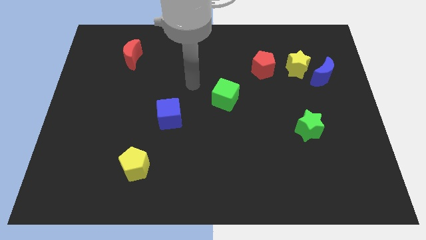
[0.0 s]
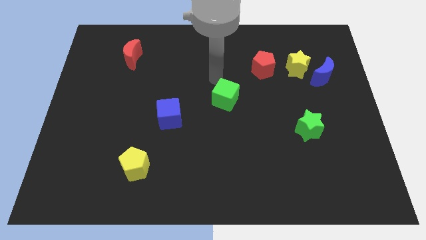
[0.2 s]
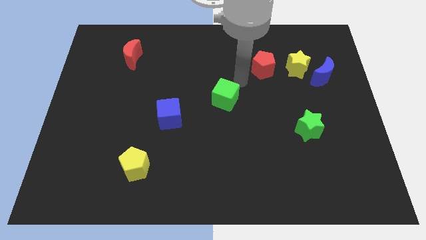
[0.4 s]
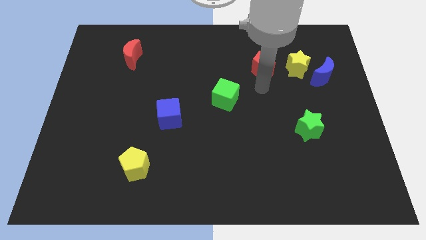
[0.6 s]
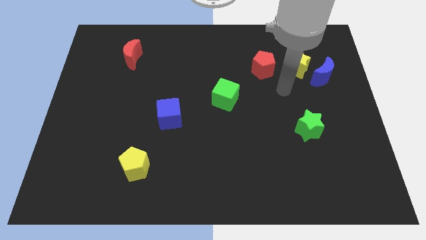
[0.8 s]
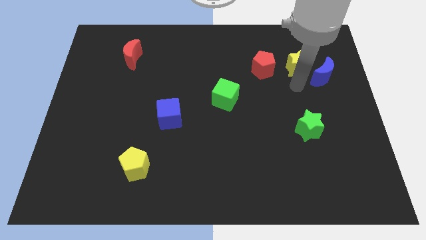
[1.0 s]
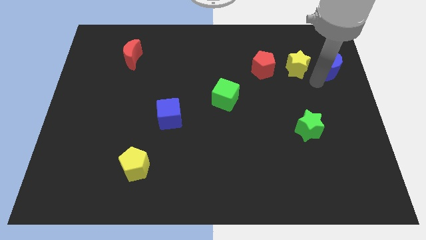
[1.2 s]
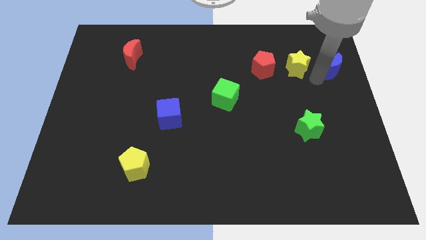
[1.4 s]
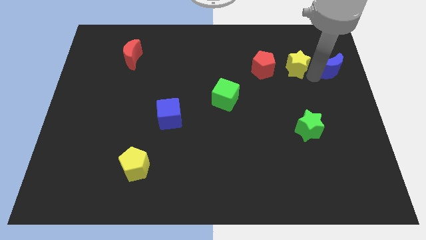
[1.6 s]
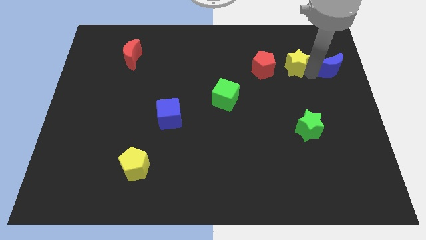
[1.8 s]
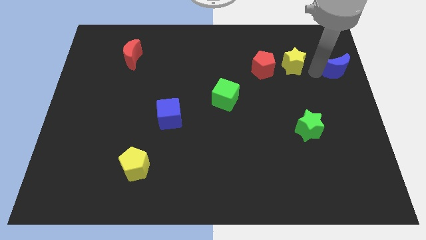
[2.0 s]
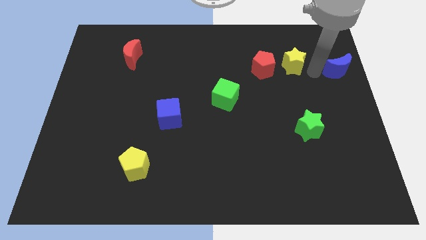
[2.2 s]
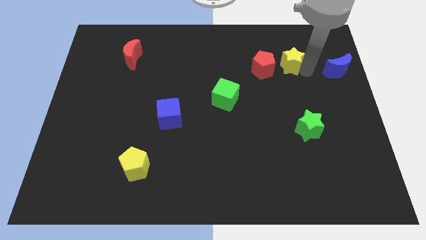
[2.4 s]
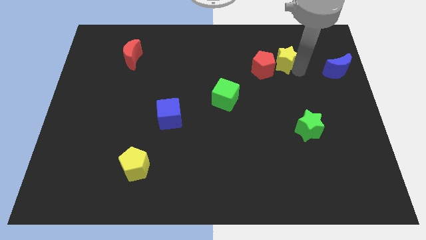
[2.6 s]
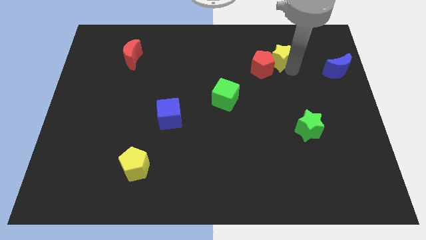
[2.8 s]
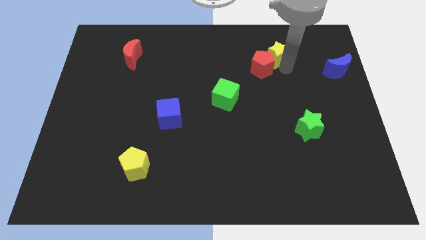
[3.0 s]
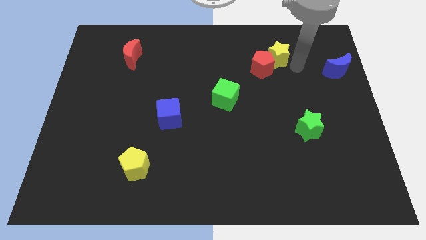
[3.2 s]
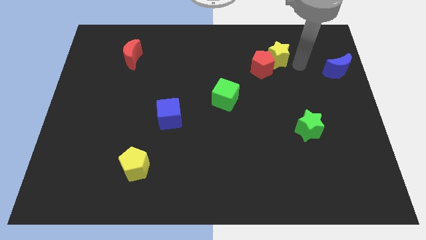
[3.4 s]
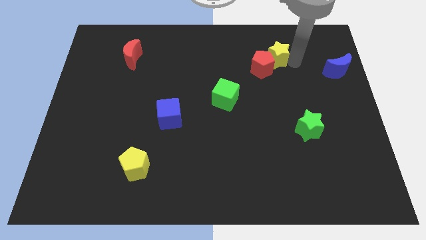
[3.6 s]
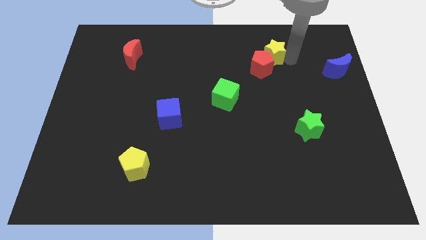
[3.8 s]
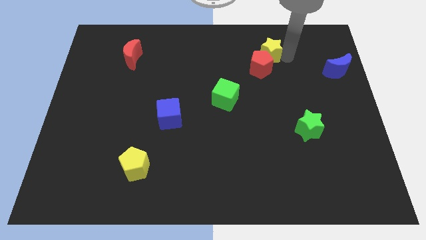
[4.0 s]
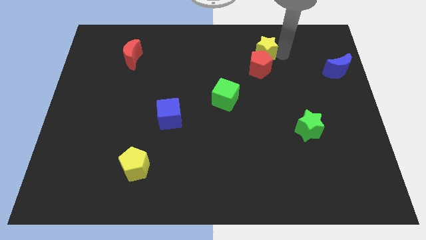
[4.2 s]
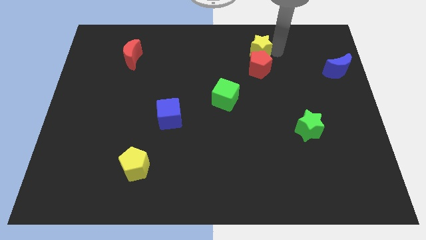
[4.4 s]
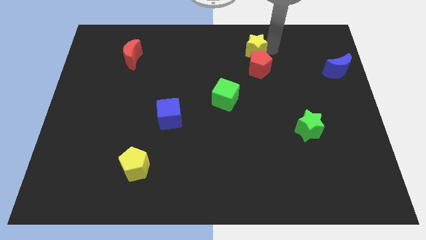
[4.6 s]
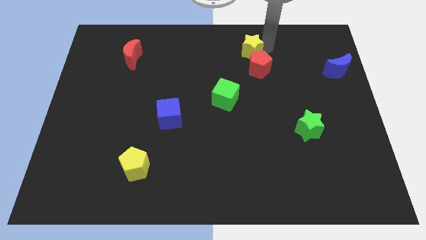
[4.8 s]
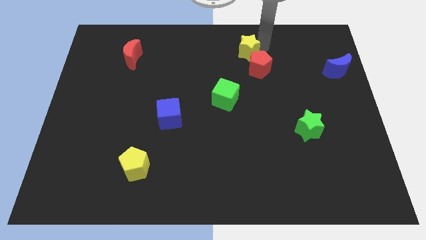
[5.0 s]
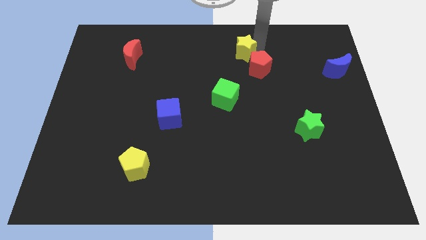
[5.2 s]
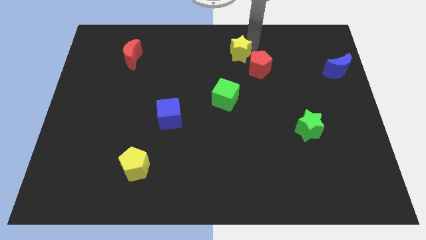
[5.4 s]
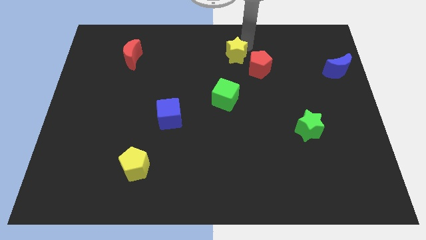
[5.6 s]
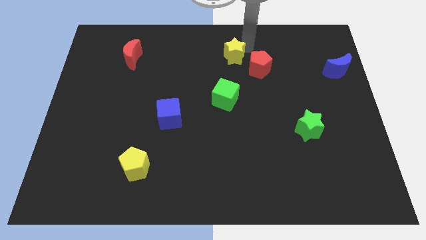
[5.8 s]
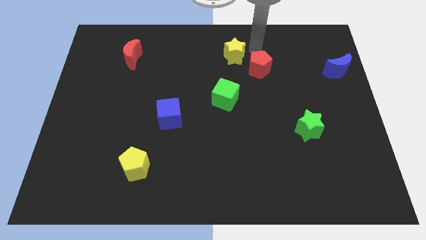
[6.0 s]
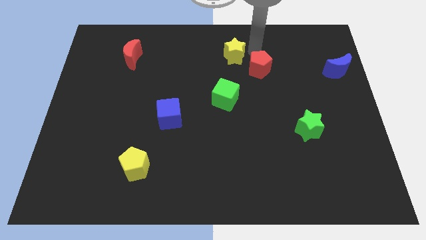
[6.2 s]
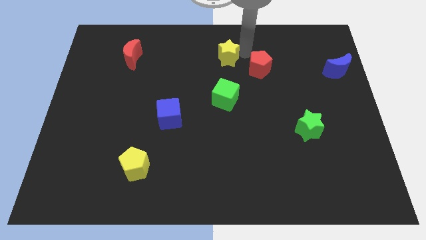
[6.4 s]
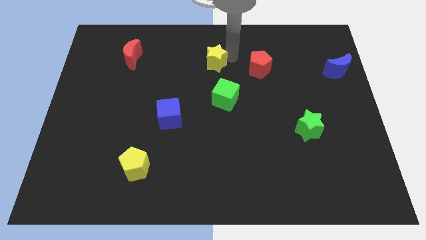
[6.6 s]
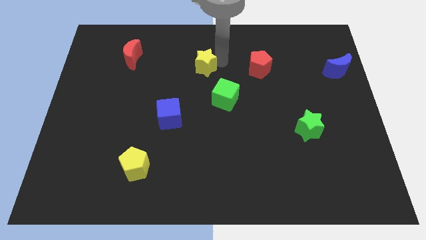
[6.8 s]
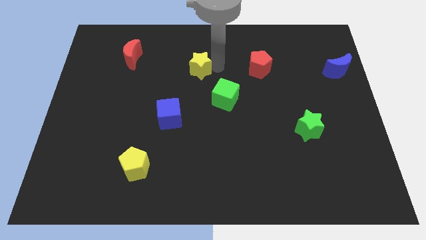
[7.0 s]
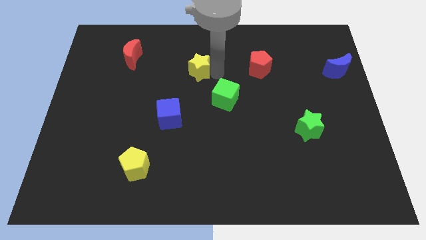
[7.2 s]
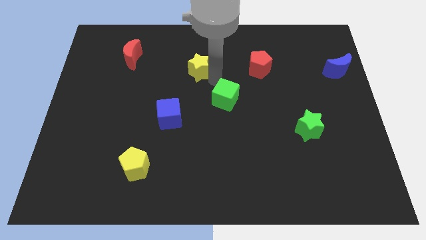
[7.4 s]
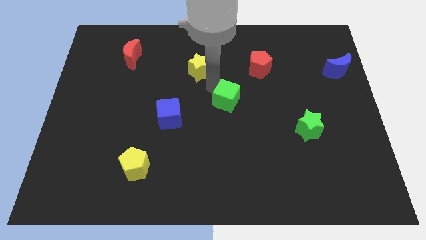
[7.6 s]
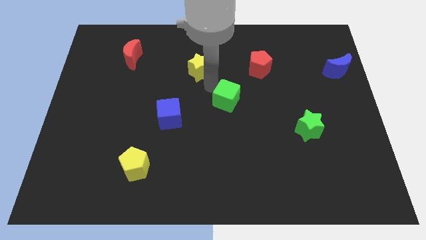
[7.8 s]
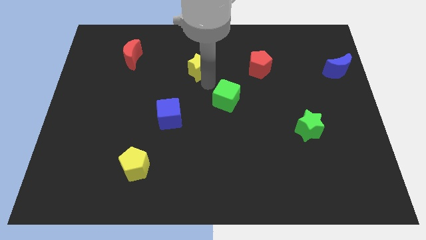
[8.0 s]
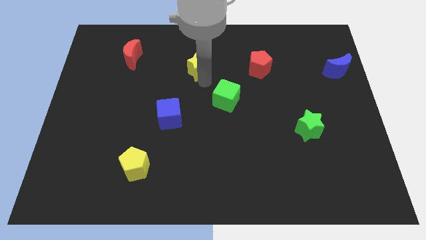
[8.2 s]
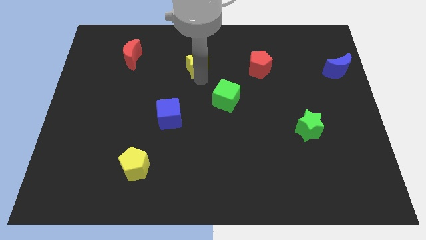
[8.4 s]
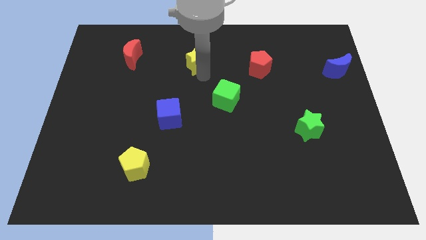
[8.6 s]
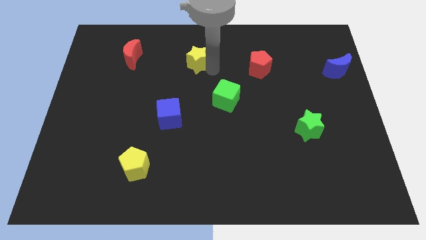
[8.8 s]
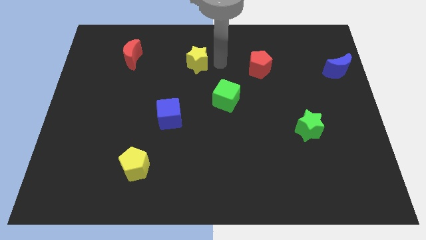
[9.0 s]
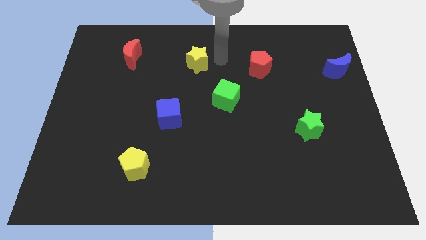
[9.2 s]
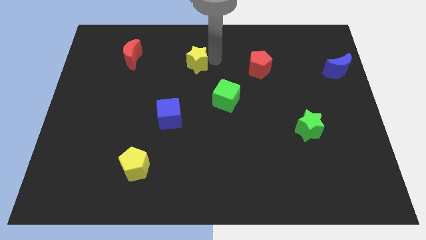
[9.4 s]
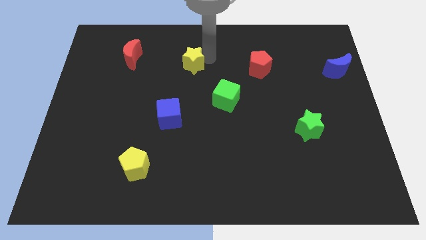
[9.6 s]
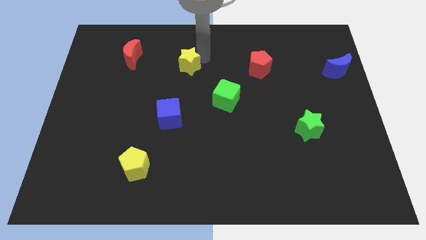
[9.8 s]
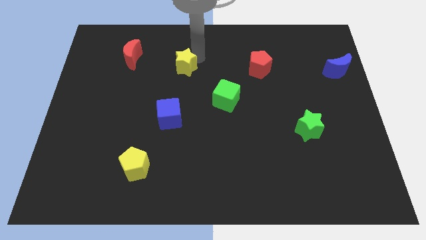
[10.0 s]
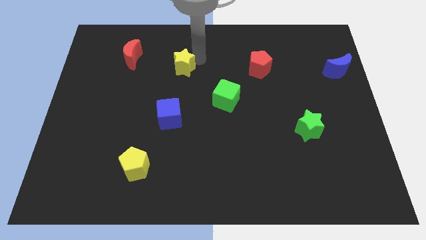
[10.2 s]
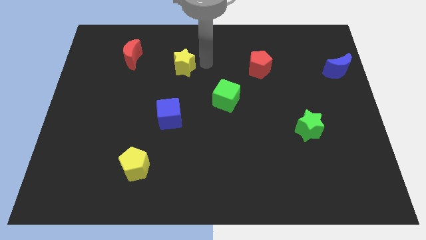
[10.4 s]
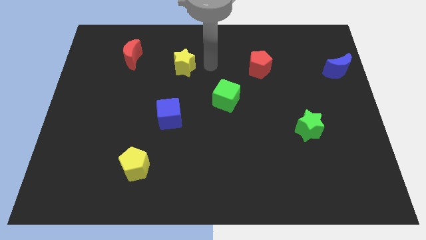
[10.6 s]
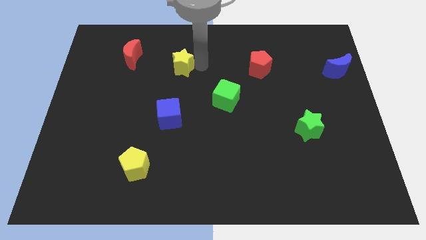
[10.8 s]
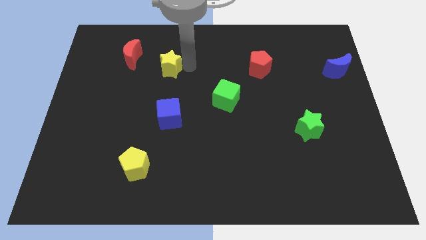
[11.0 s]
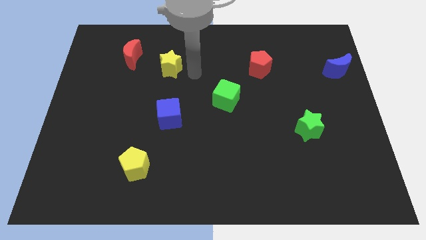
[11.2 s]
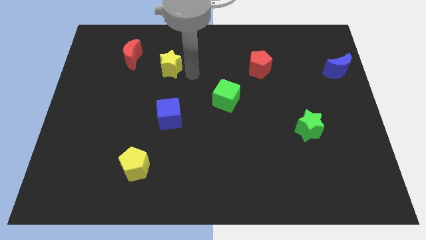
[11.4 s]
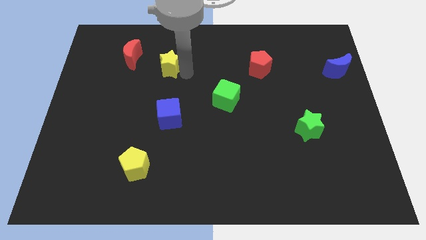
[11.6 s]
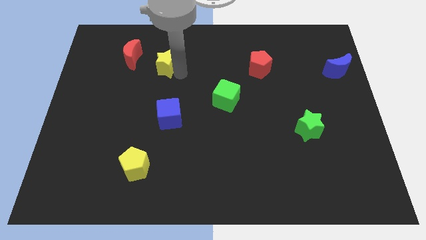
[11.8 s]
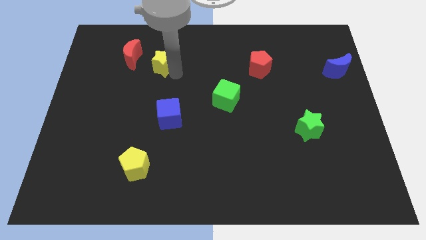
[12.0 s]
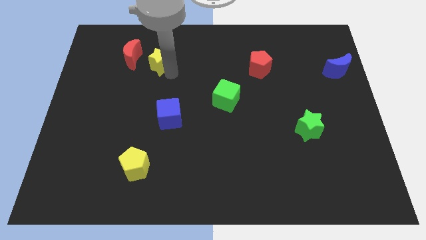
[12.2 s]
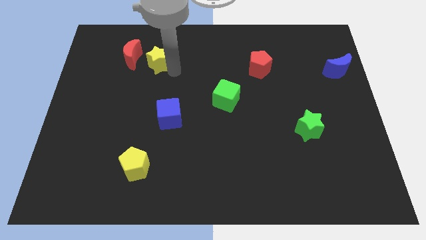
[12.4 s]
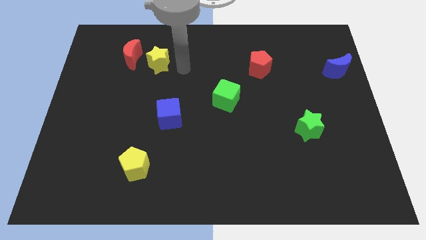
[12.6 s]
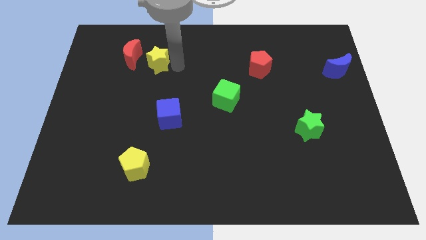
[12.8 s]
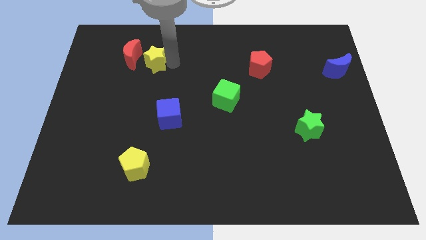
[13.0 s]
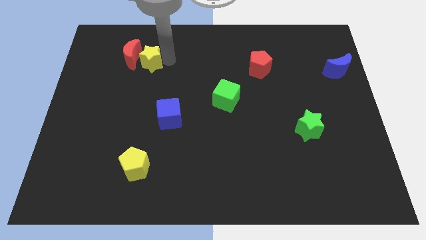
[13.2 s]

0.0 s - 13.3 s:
push the yellow star next to the red moon

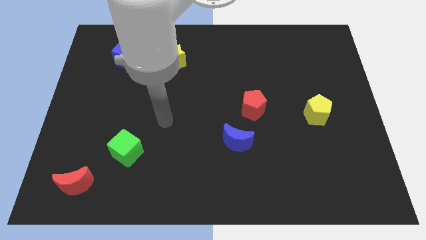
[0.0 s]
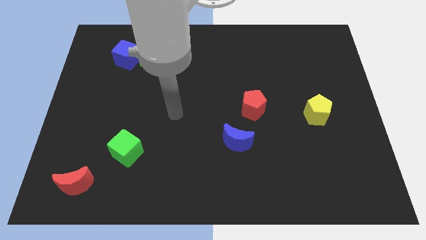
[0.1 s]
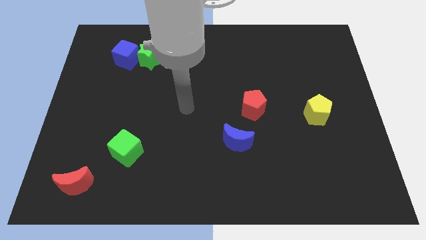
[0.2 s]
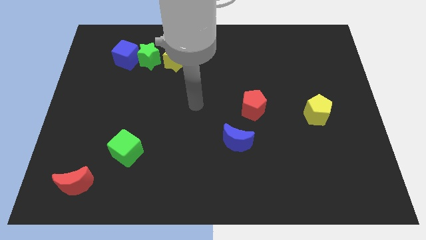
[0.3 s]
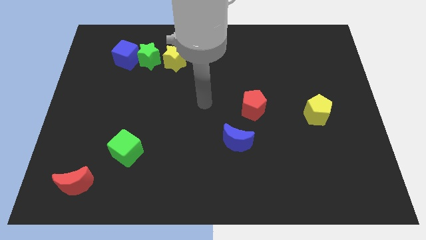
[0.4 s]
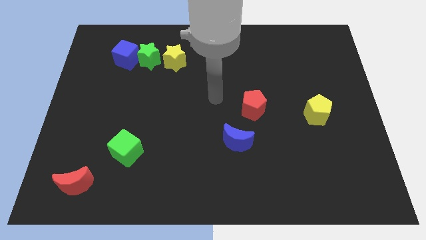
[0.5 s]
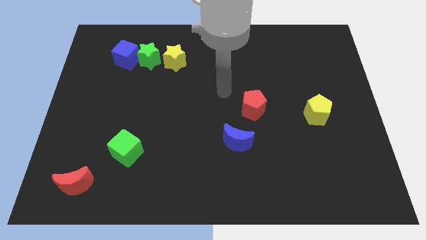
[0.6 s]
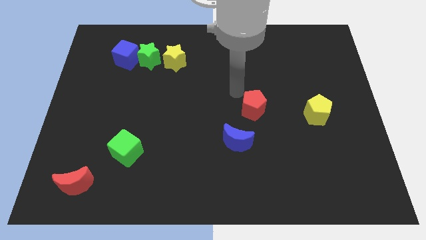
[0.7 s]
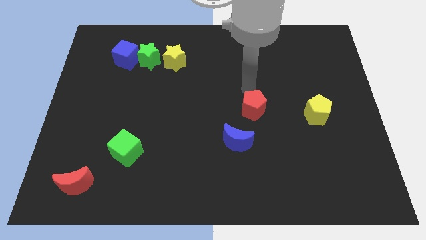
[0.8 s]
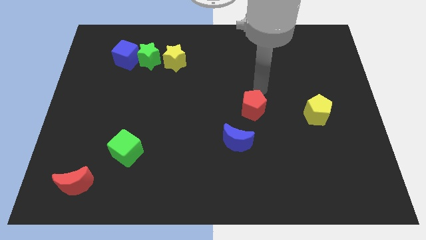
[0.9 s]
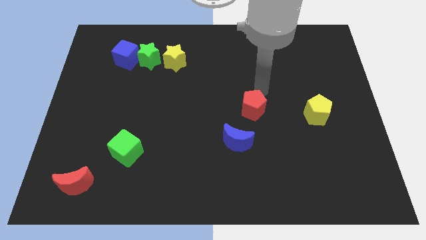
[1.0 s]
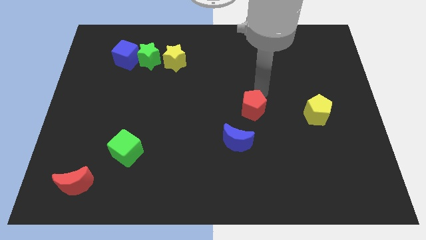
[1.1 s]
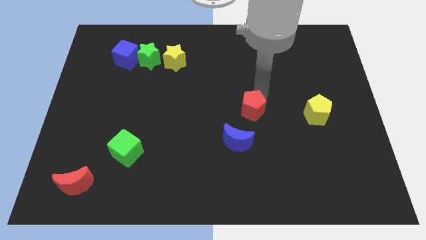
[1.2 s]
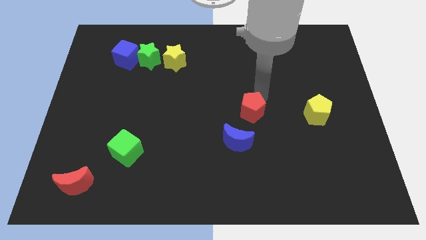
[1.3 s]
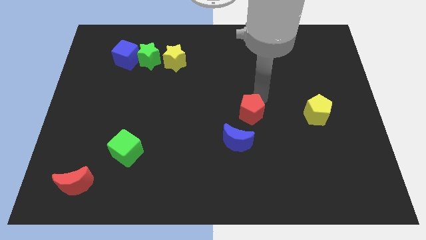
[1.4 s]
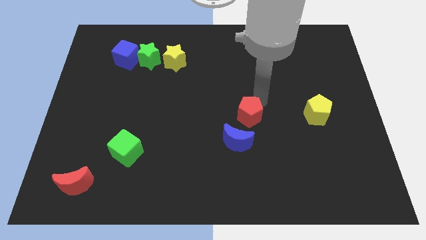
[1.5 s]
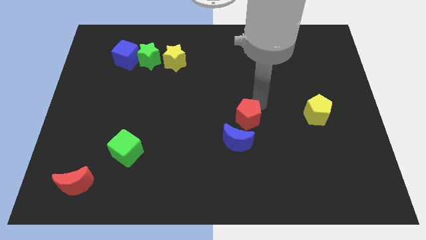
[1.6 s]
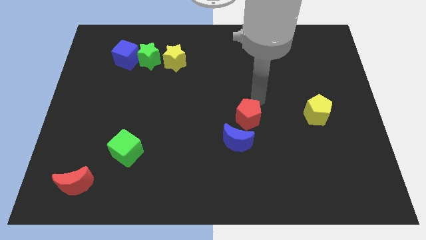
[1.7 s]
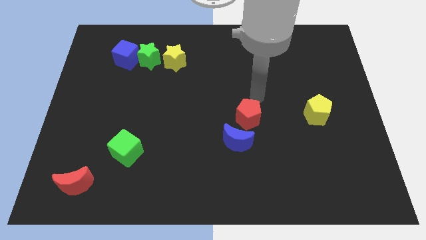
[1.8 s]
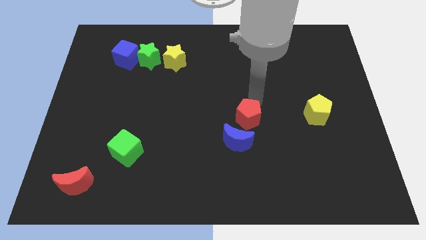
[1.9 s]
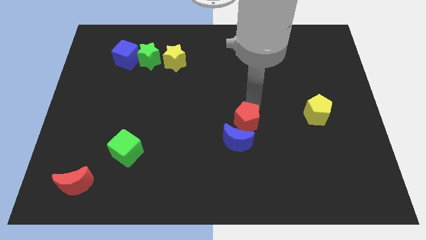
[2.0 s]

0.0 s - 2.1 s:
push the red pentagon to the blue moon

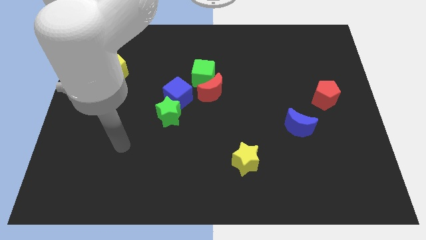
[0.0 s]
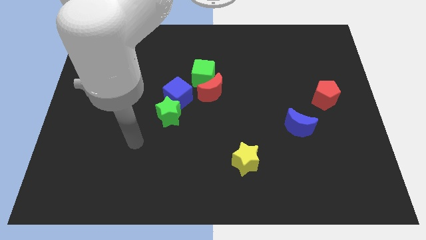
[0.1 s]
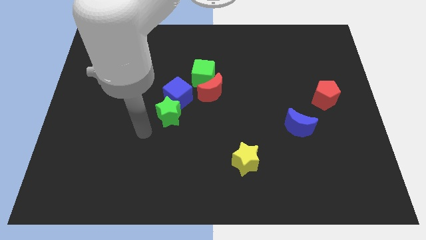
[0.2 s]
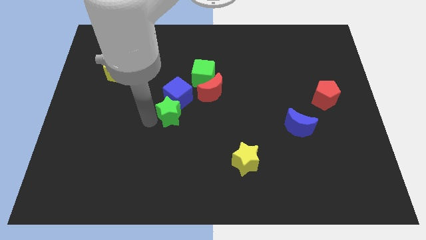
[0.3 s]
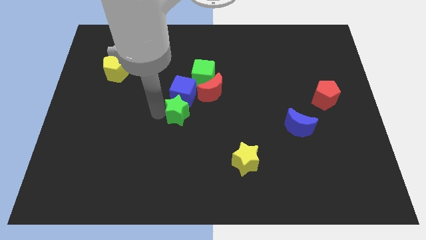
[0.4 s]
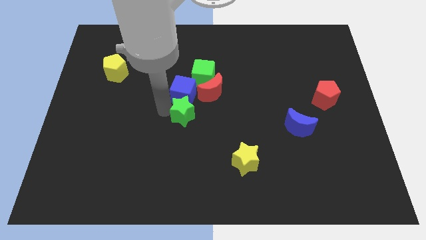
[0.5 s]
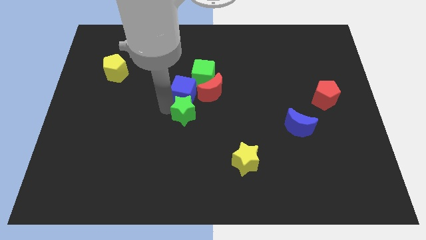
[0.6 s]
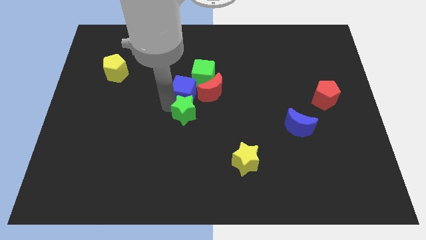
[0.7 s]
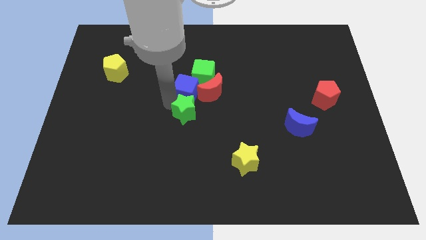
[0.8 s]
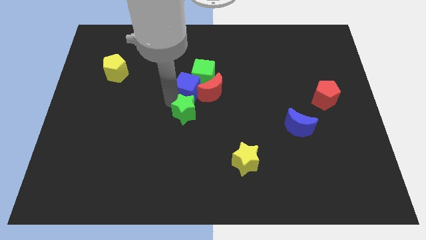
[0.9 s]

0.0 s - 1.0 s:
move the blue cube close to the green cube
